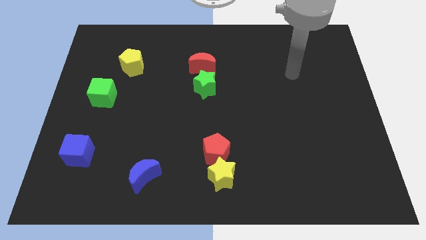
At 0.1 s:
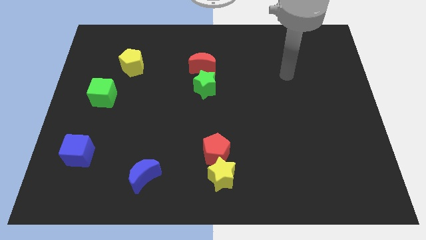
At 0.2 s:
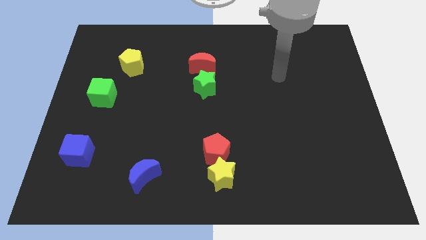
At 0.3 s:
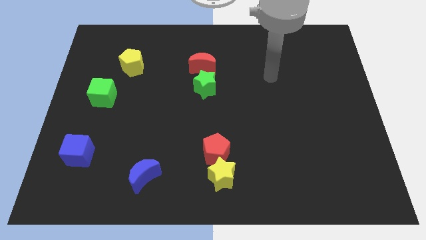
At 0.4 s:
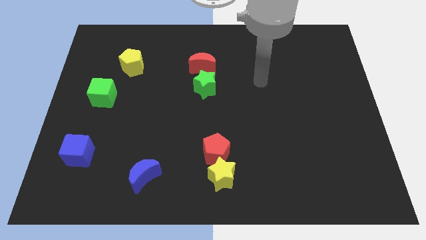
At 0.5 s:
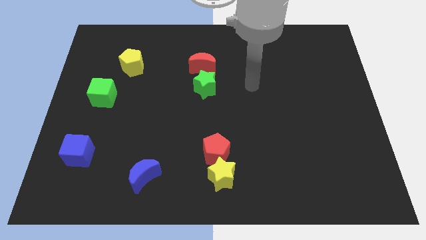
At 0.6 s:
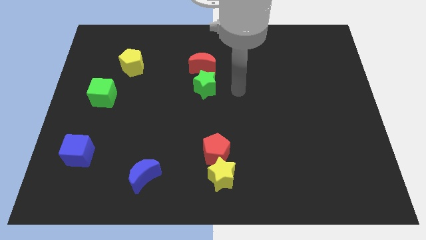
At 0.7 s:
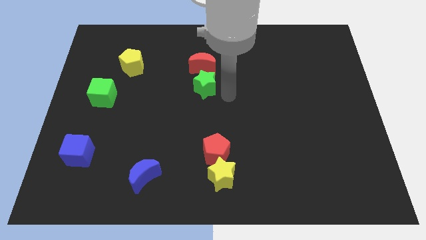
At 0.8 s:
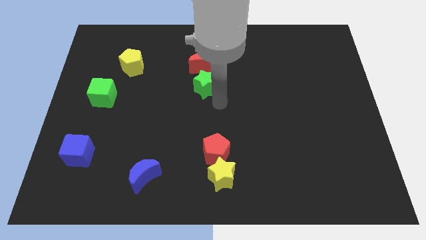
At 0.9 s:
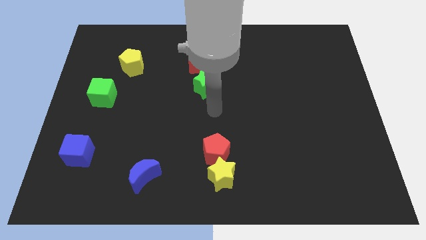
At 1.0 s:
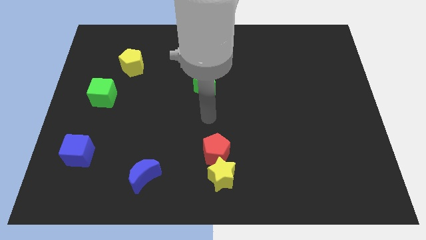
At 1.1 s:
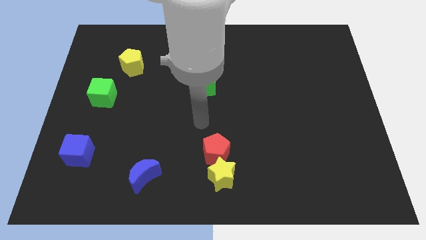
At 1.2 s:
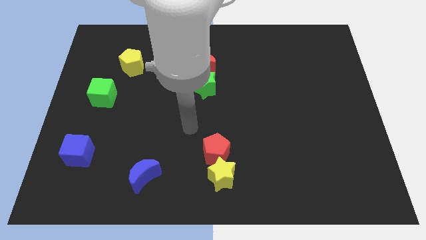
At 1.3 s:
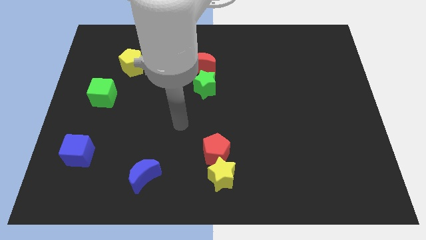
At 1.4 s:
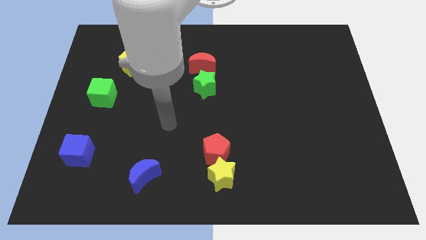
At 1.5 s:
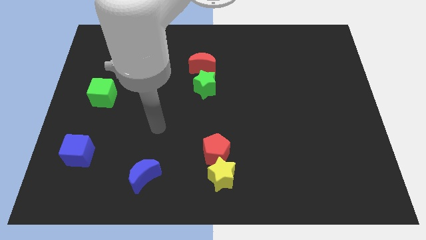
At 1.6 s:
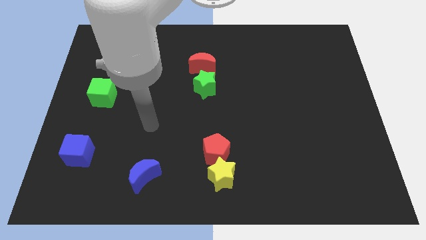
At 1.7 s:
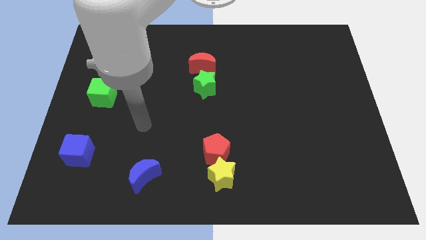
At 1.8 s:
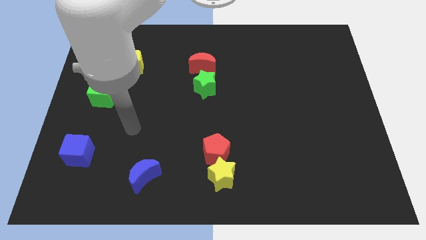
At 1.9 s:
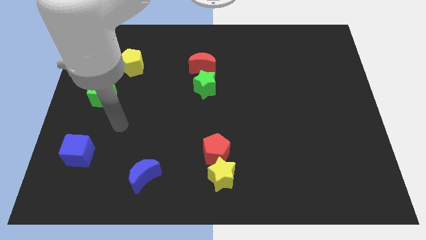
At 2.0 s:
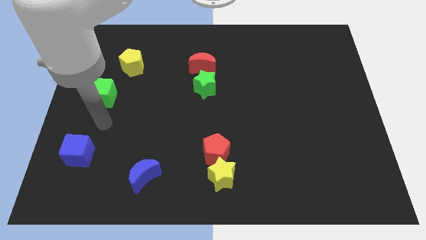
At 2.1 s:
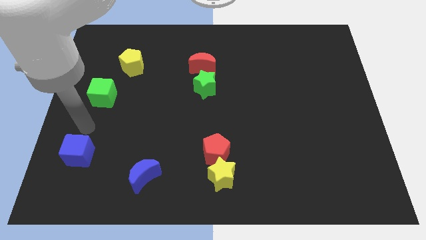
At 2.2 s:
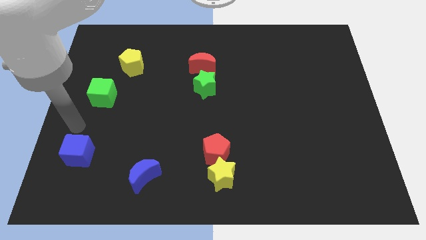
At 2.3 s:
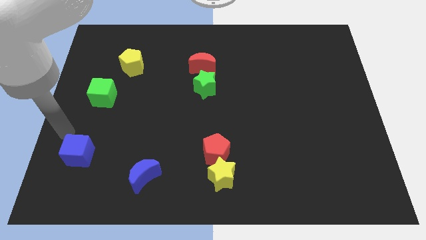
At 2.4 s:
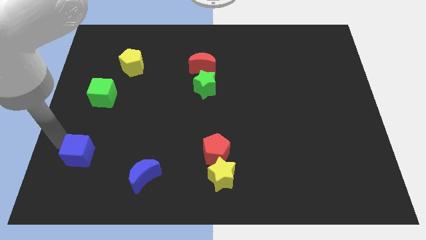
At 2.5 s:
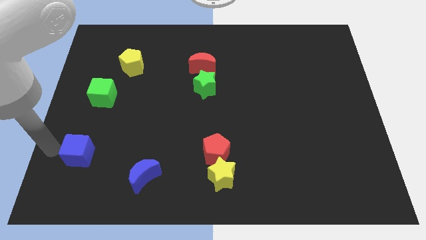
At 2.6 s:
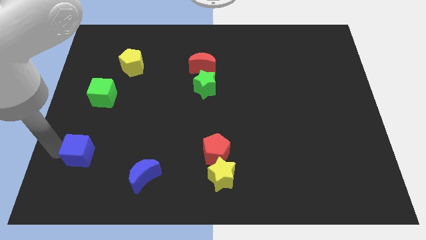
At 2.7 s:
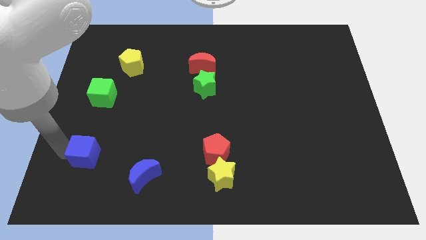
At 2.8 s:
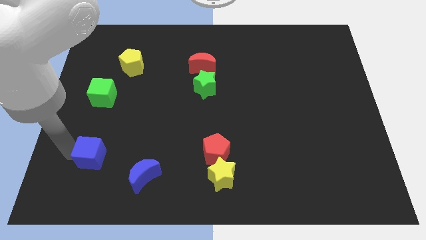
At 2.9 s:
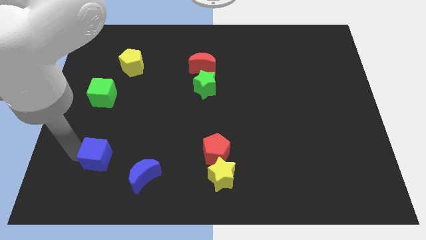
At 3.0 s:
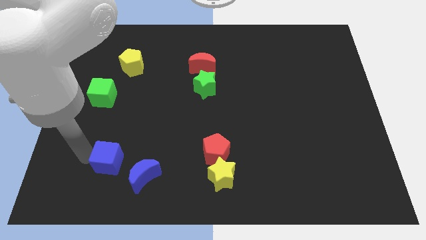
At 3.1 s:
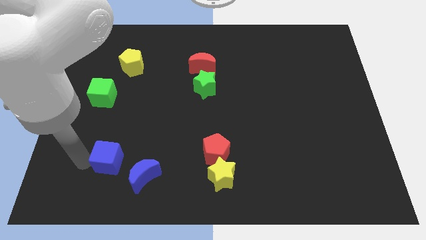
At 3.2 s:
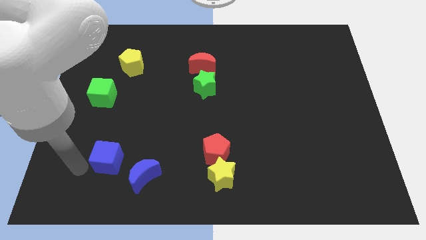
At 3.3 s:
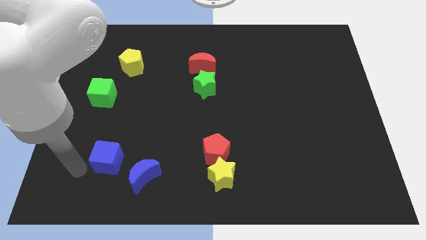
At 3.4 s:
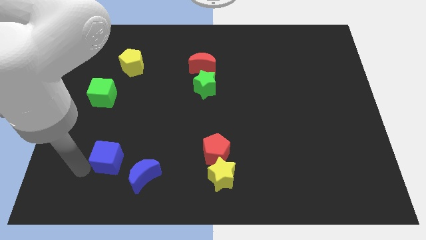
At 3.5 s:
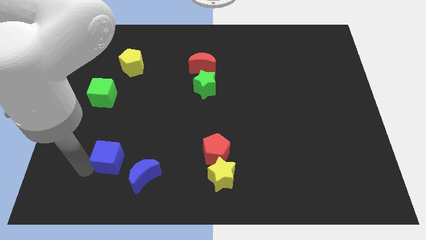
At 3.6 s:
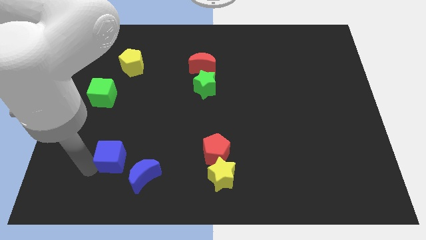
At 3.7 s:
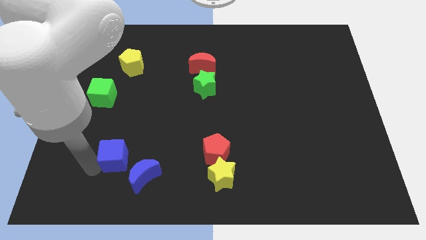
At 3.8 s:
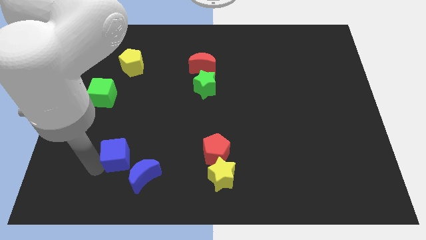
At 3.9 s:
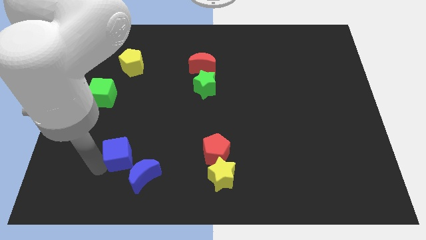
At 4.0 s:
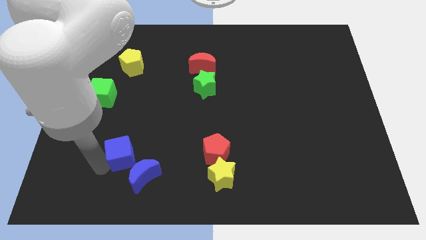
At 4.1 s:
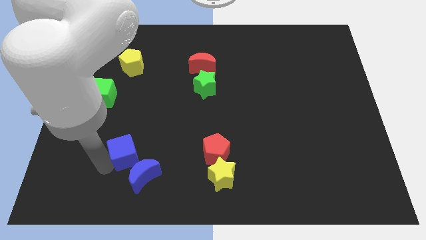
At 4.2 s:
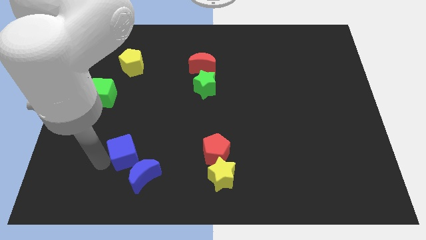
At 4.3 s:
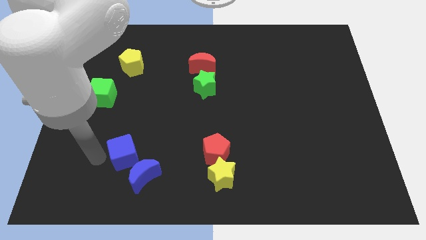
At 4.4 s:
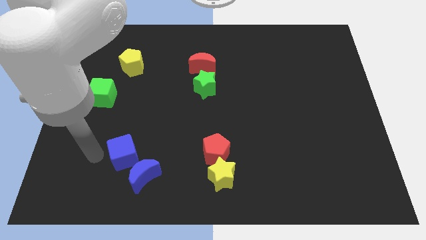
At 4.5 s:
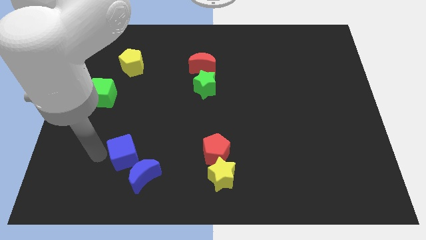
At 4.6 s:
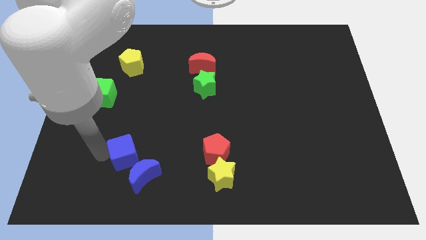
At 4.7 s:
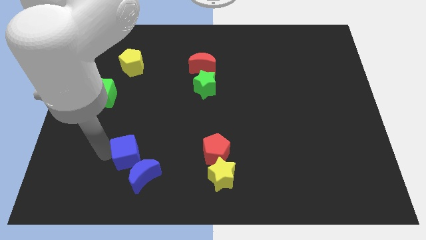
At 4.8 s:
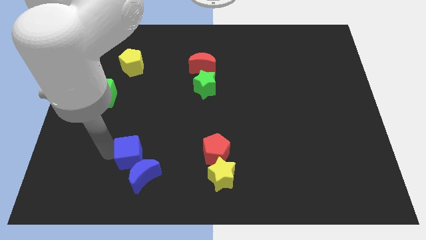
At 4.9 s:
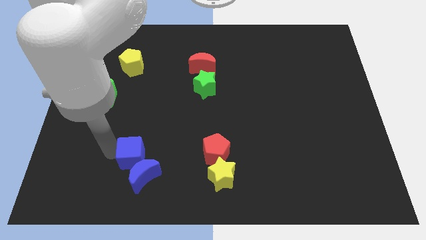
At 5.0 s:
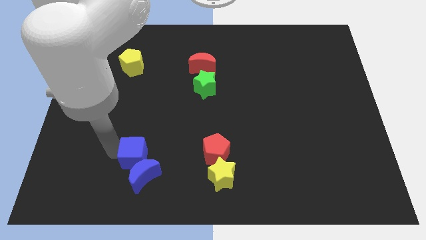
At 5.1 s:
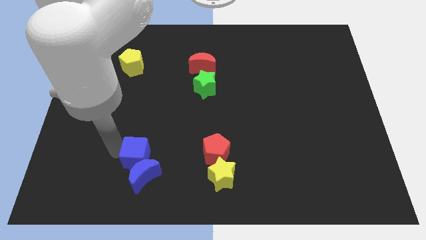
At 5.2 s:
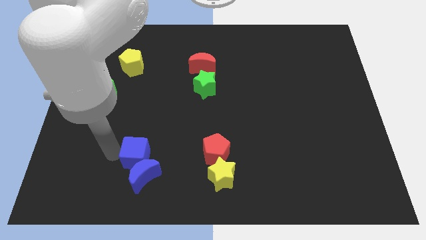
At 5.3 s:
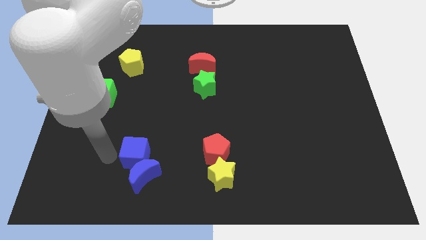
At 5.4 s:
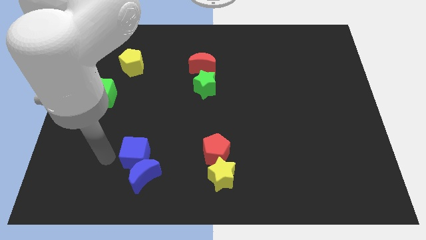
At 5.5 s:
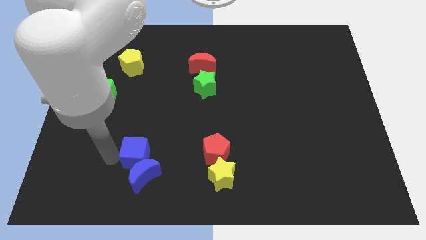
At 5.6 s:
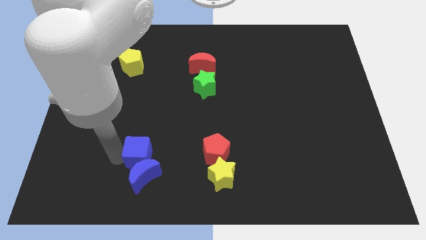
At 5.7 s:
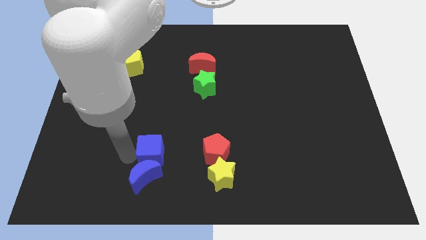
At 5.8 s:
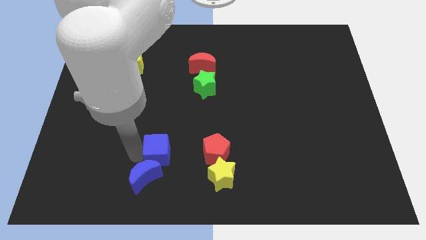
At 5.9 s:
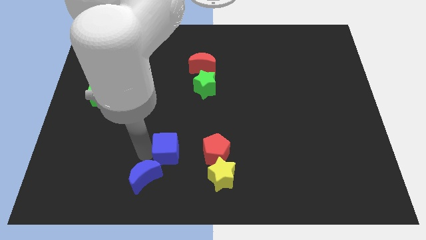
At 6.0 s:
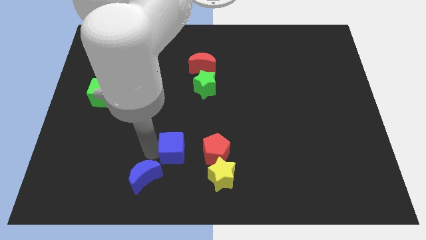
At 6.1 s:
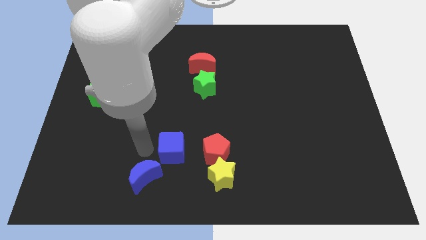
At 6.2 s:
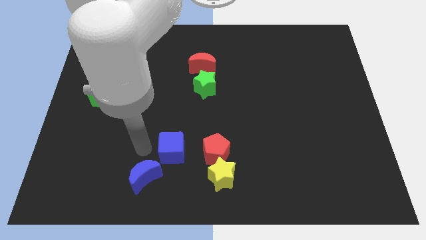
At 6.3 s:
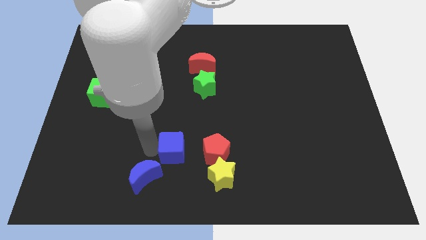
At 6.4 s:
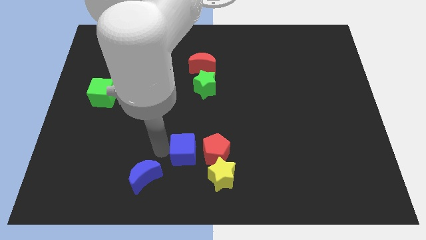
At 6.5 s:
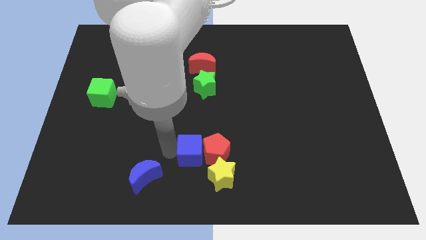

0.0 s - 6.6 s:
put the blue cube towards the red pentagon

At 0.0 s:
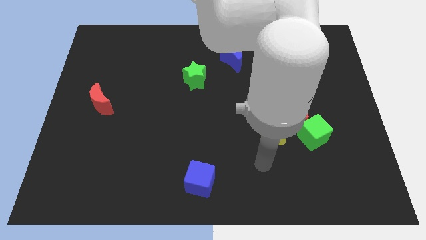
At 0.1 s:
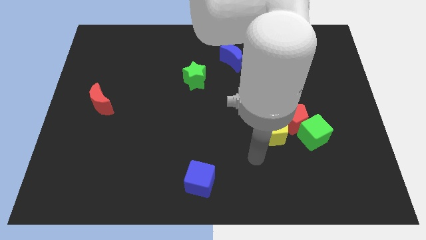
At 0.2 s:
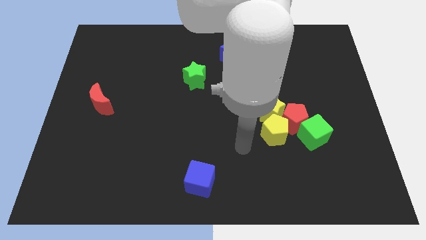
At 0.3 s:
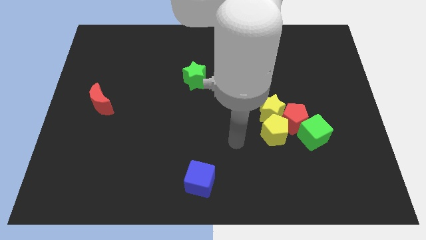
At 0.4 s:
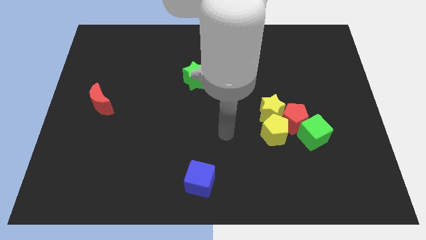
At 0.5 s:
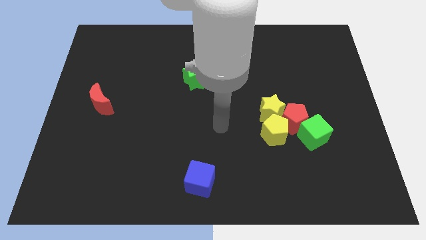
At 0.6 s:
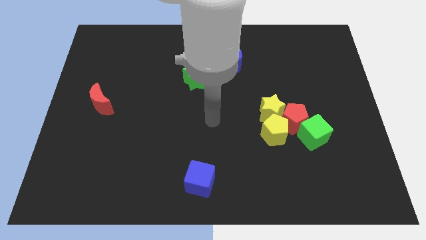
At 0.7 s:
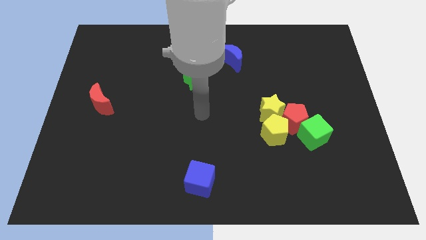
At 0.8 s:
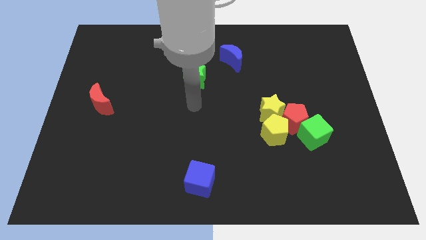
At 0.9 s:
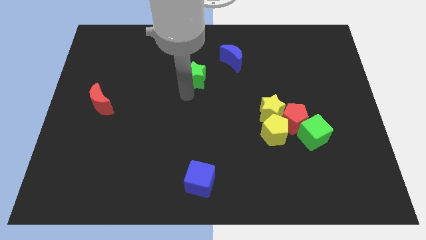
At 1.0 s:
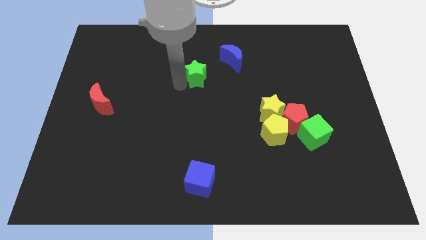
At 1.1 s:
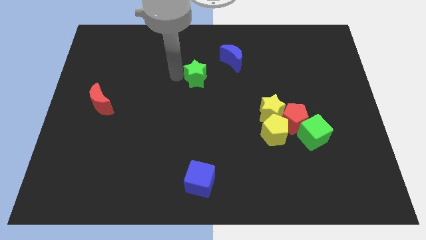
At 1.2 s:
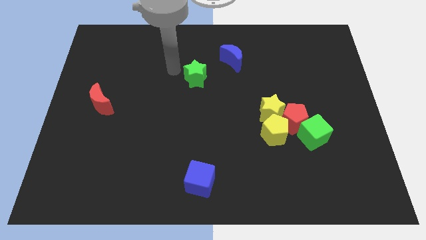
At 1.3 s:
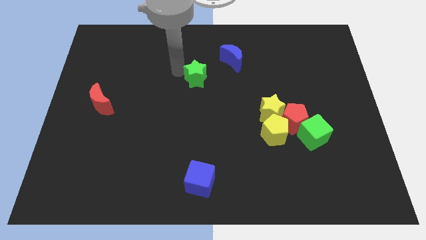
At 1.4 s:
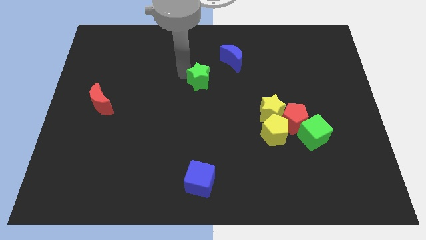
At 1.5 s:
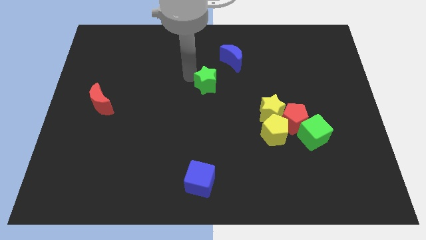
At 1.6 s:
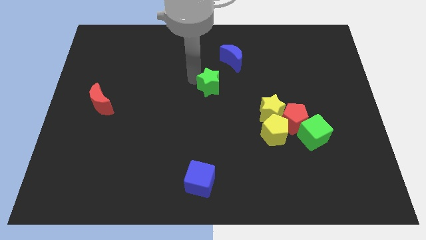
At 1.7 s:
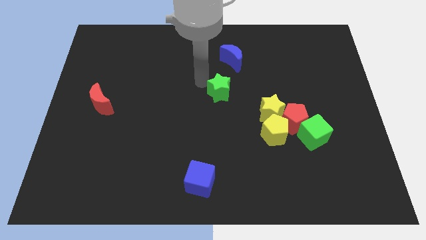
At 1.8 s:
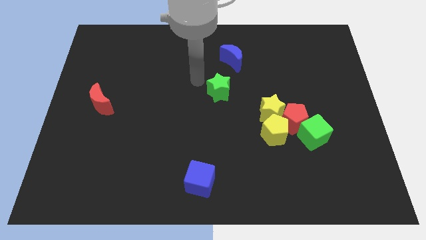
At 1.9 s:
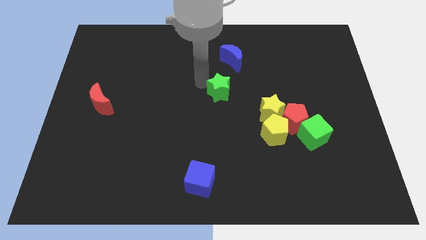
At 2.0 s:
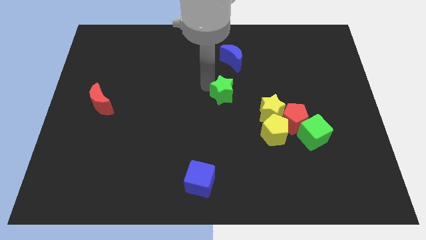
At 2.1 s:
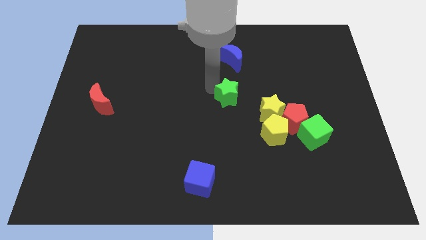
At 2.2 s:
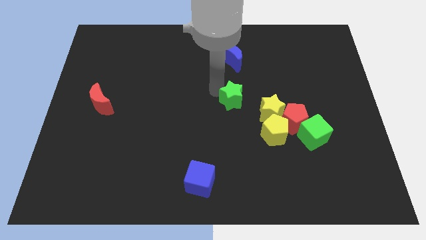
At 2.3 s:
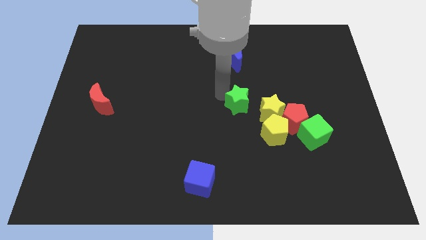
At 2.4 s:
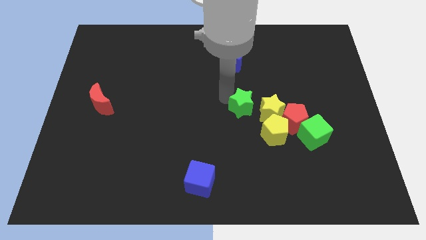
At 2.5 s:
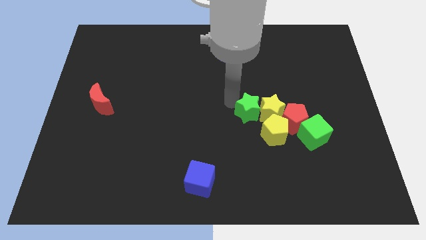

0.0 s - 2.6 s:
move the green star towards the yellow star
